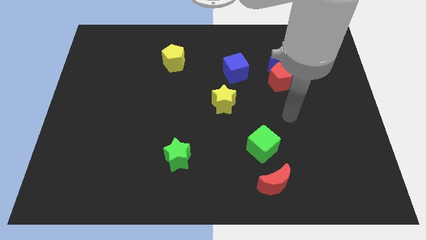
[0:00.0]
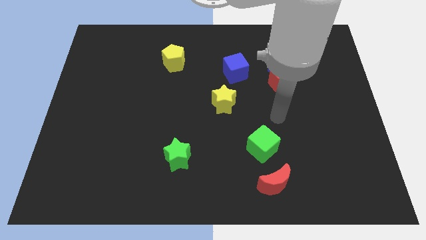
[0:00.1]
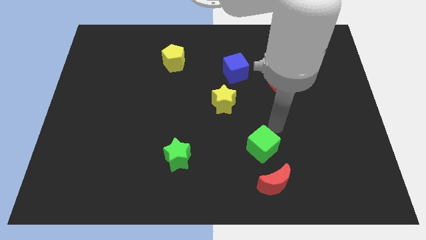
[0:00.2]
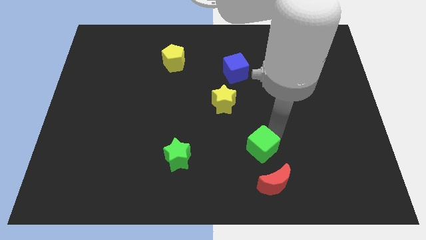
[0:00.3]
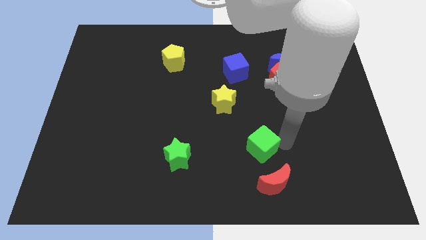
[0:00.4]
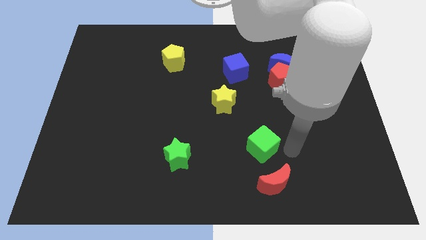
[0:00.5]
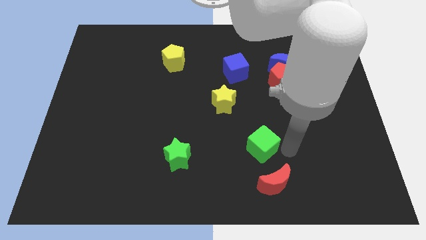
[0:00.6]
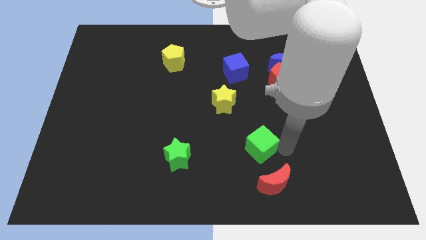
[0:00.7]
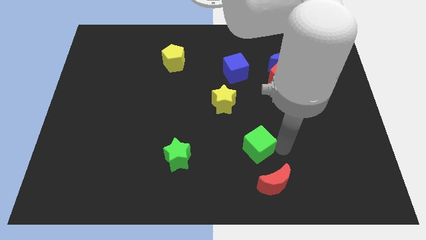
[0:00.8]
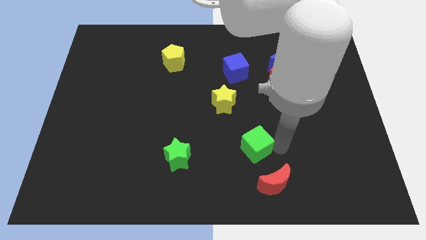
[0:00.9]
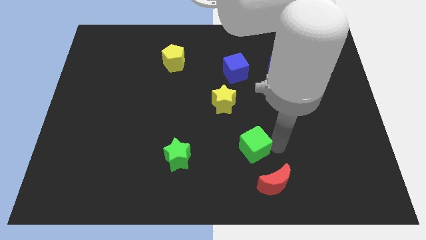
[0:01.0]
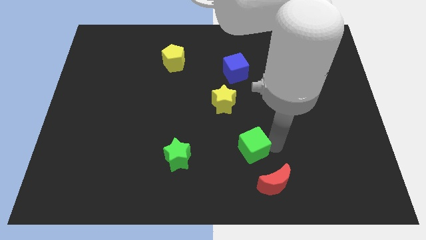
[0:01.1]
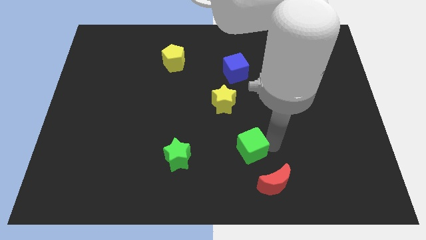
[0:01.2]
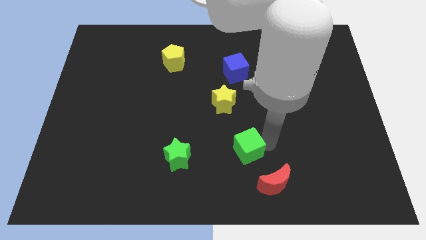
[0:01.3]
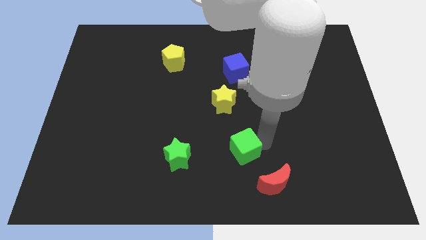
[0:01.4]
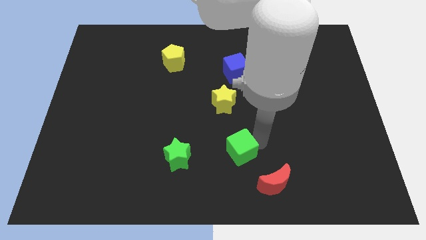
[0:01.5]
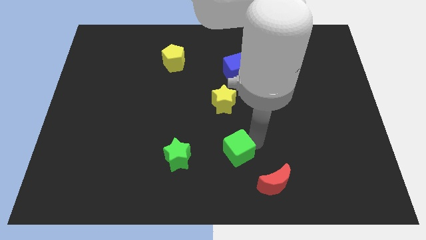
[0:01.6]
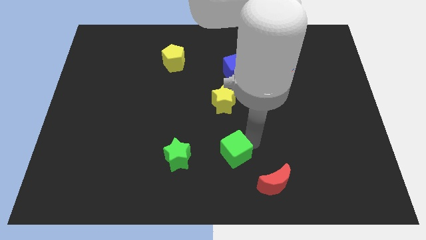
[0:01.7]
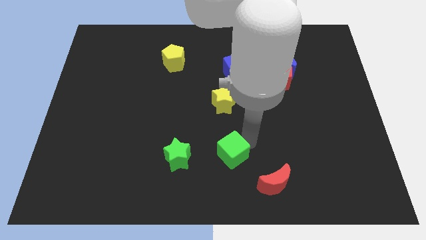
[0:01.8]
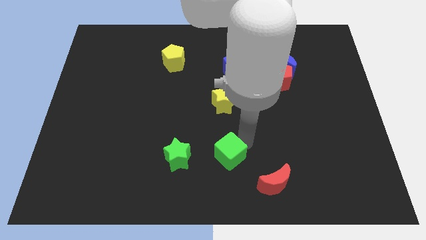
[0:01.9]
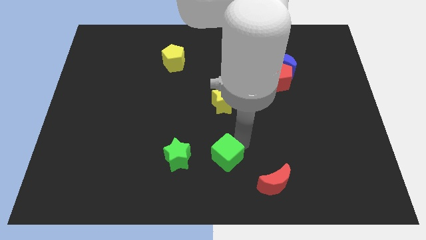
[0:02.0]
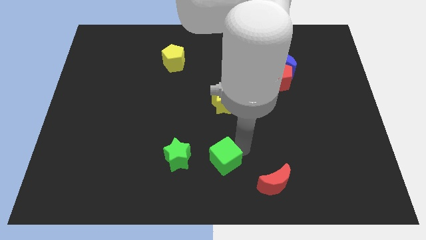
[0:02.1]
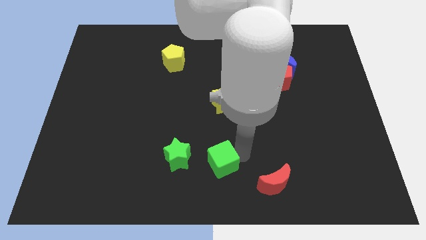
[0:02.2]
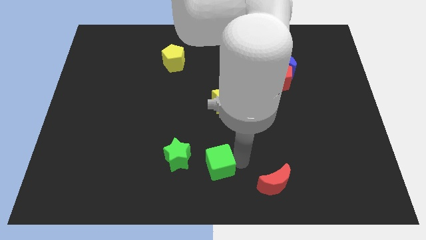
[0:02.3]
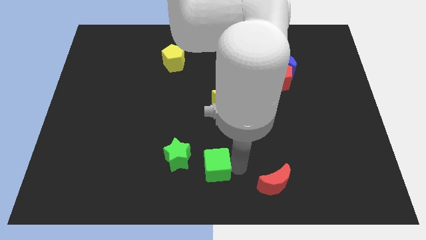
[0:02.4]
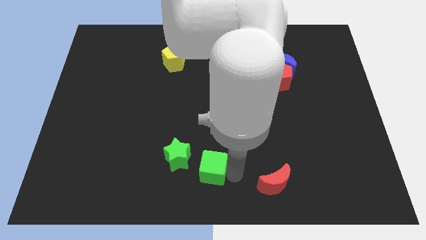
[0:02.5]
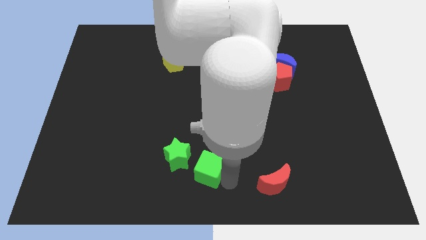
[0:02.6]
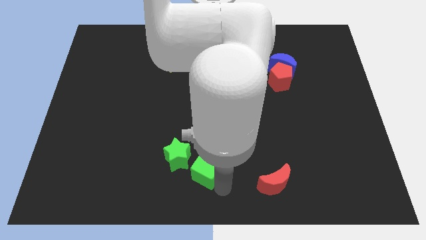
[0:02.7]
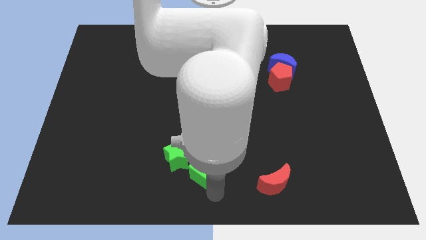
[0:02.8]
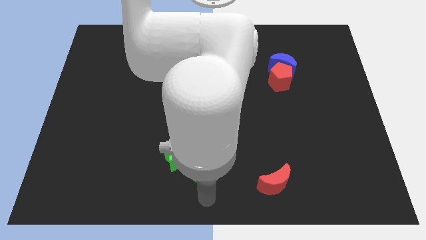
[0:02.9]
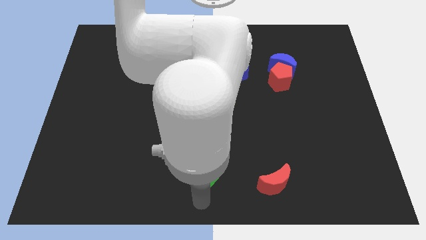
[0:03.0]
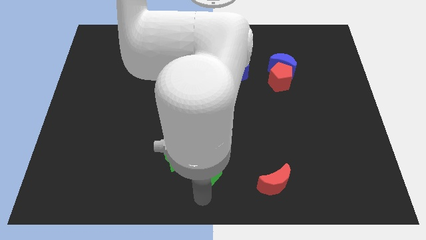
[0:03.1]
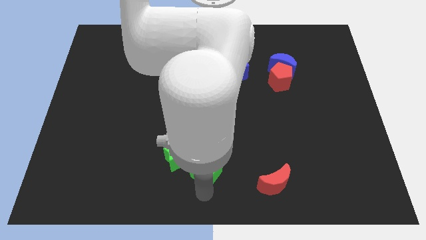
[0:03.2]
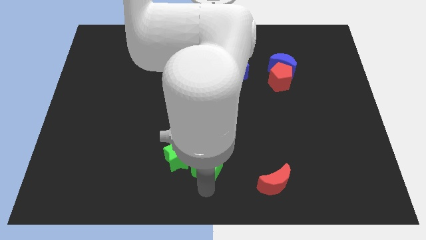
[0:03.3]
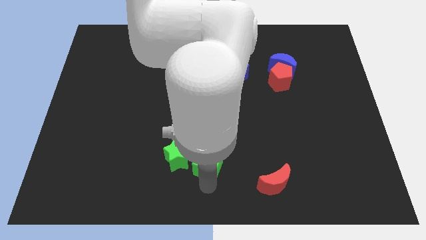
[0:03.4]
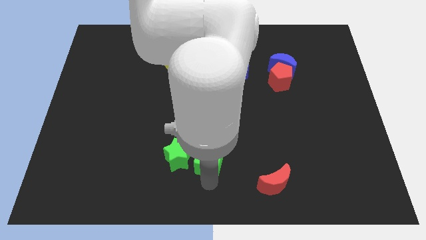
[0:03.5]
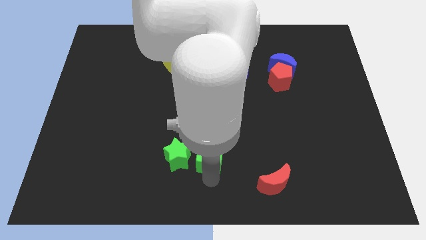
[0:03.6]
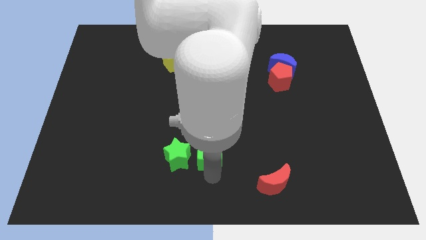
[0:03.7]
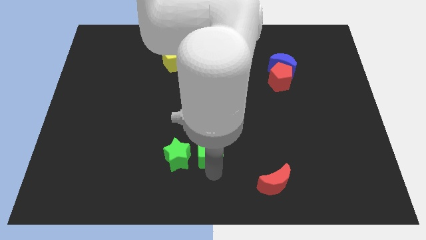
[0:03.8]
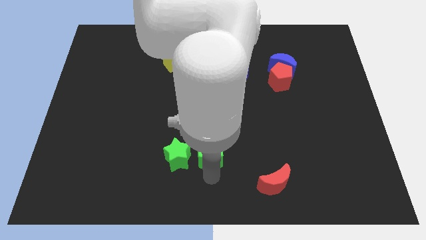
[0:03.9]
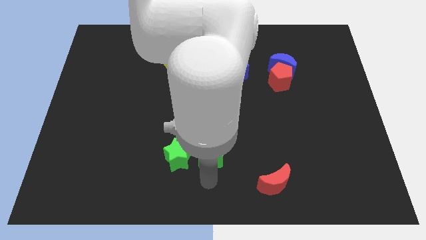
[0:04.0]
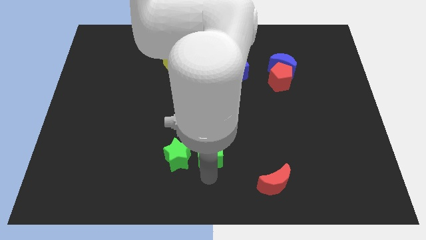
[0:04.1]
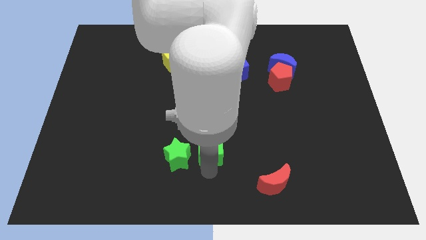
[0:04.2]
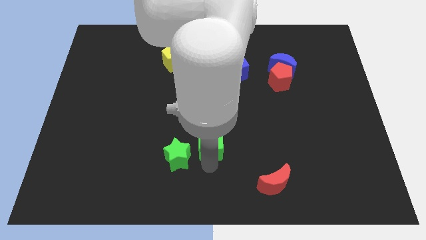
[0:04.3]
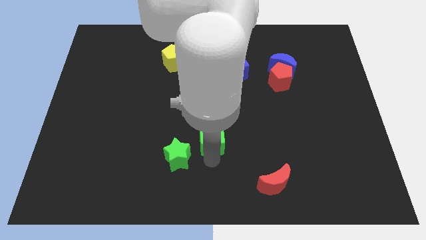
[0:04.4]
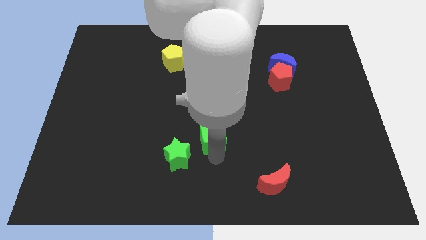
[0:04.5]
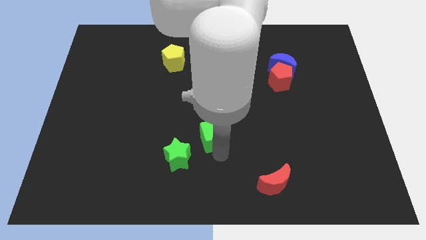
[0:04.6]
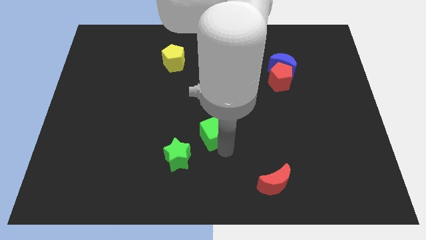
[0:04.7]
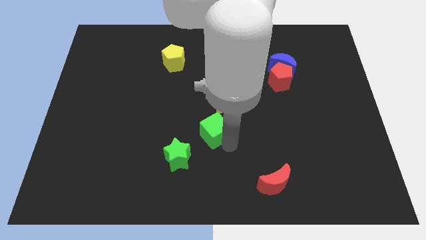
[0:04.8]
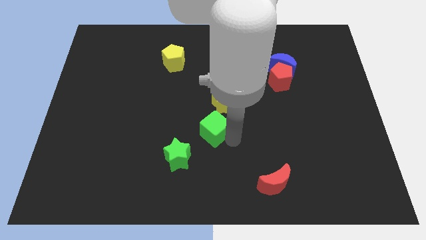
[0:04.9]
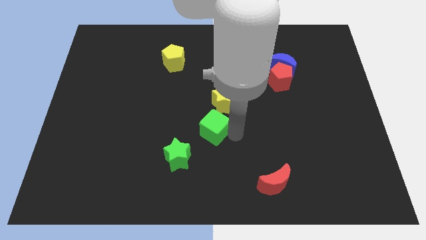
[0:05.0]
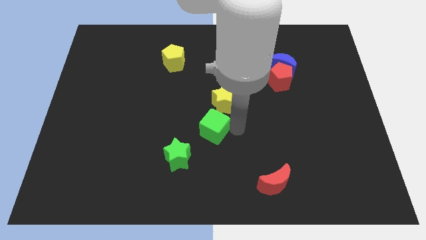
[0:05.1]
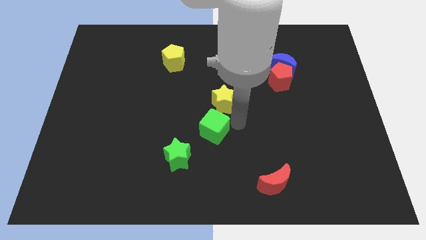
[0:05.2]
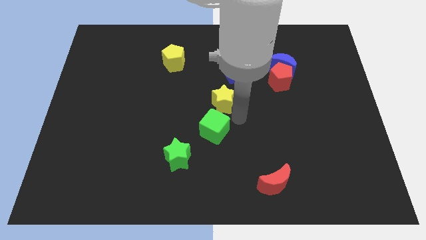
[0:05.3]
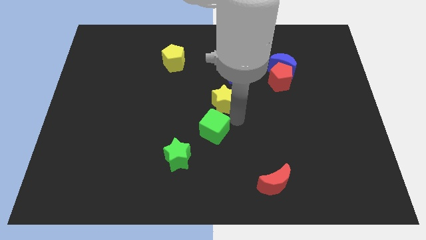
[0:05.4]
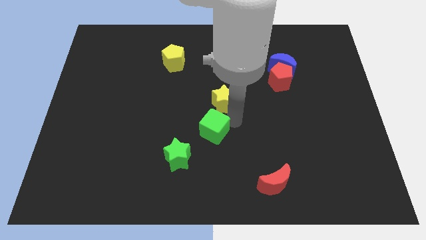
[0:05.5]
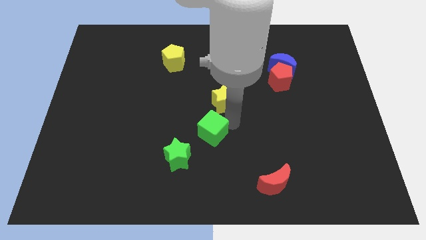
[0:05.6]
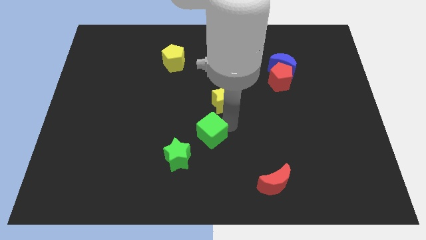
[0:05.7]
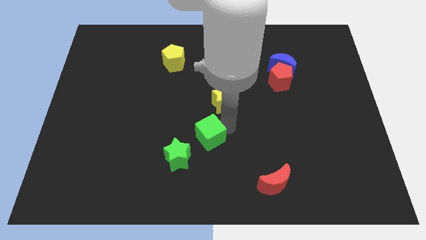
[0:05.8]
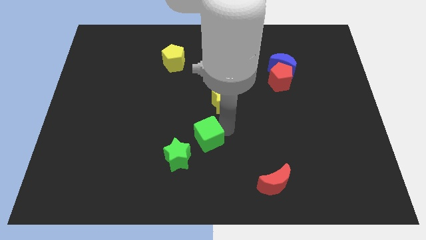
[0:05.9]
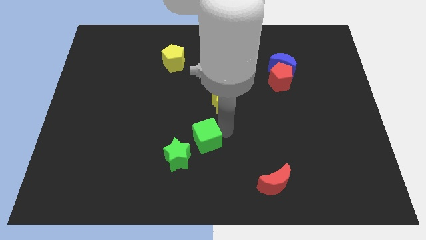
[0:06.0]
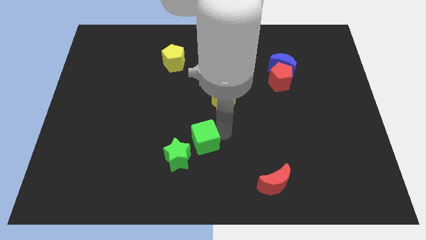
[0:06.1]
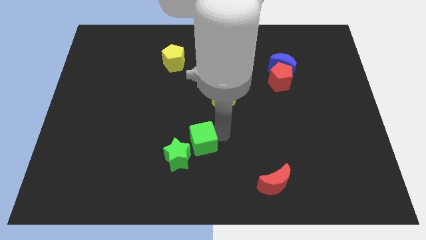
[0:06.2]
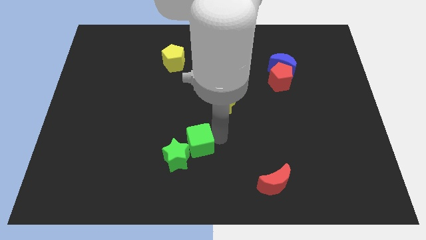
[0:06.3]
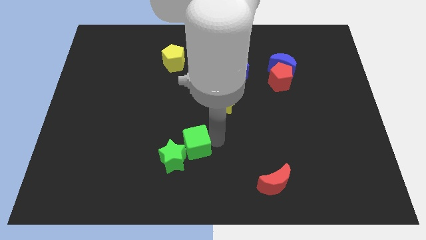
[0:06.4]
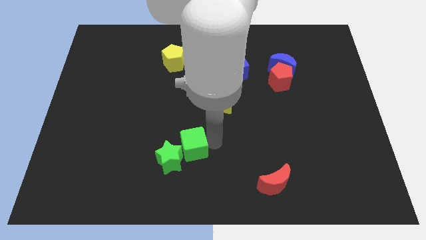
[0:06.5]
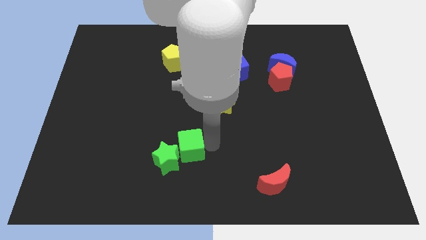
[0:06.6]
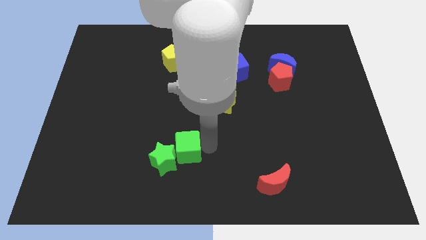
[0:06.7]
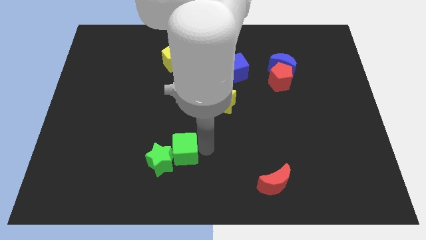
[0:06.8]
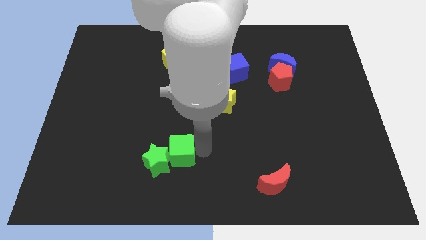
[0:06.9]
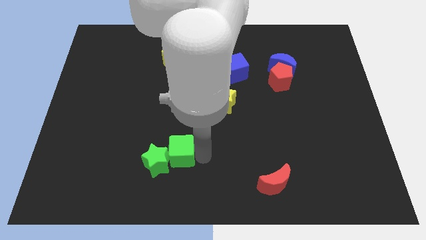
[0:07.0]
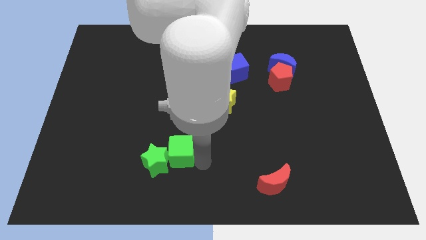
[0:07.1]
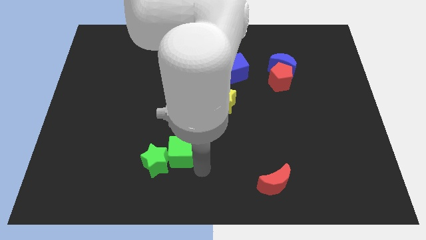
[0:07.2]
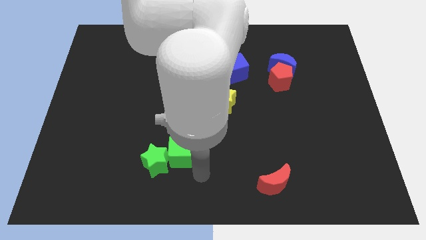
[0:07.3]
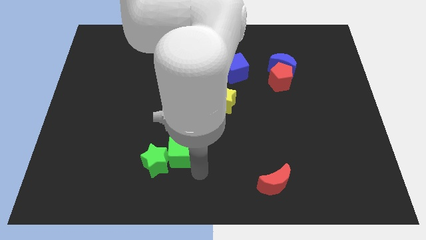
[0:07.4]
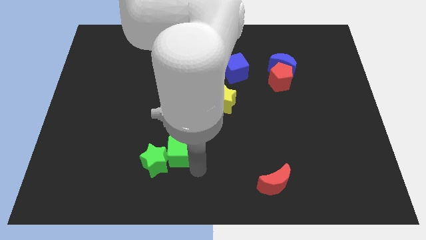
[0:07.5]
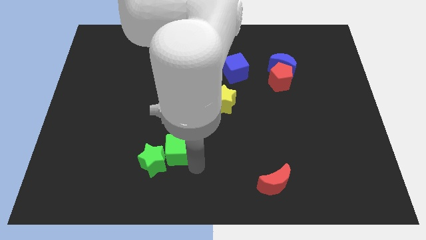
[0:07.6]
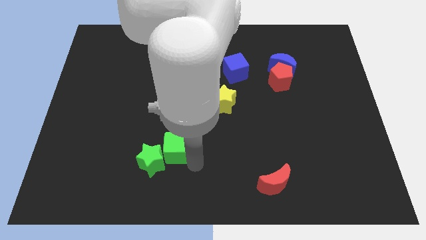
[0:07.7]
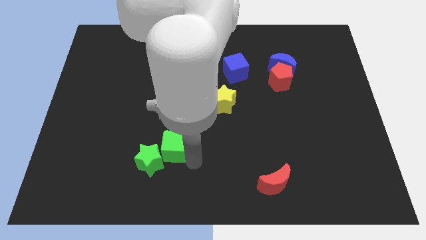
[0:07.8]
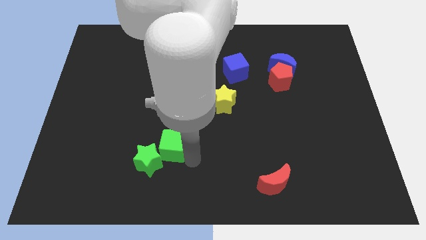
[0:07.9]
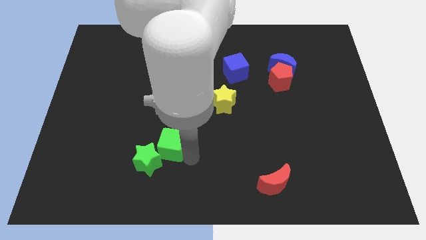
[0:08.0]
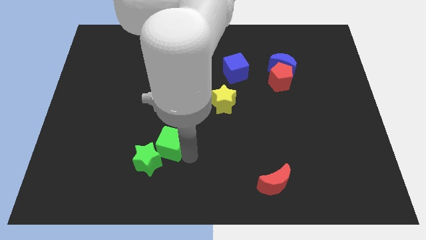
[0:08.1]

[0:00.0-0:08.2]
move the green cube to the left

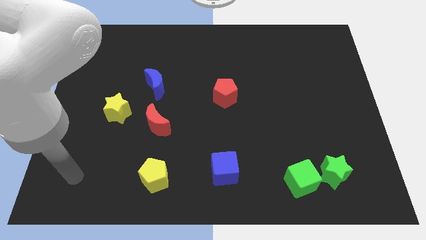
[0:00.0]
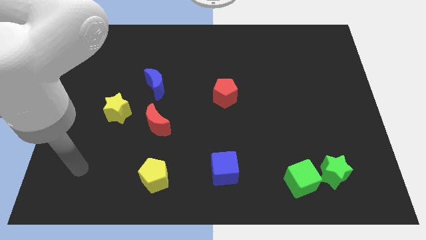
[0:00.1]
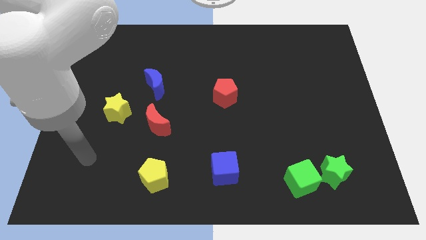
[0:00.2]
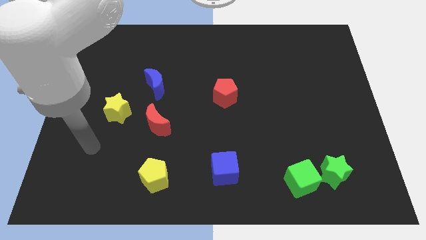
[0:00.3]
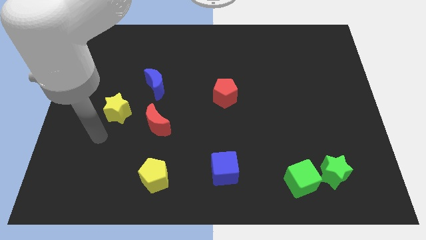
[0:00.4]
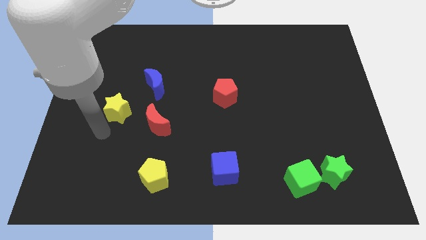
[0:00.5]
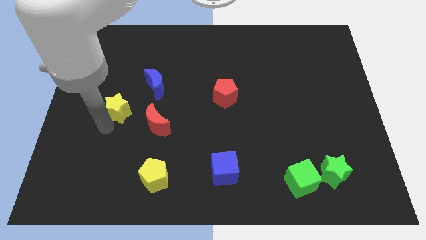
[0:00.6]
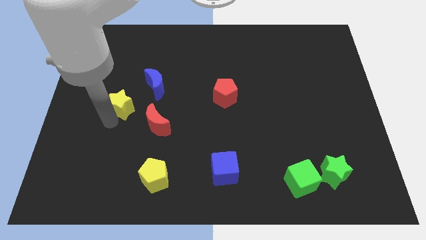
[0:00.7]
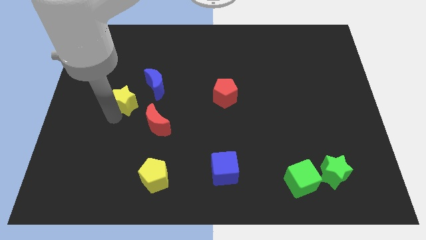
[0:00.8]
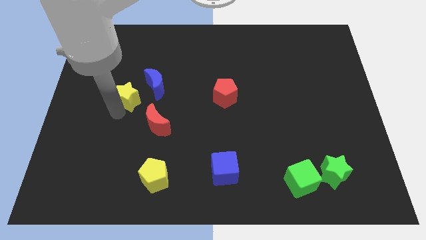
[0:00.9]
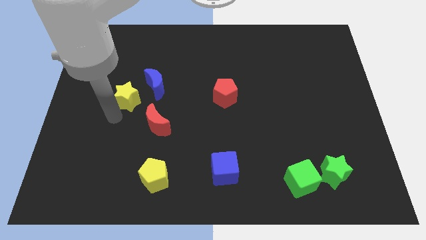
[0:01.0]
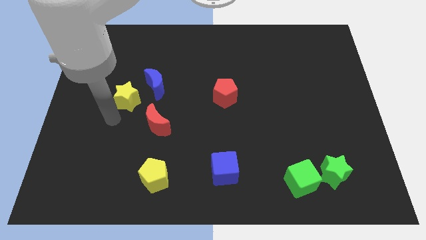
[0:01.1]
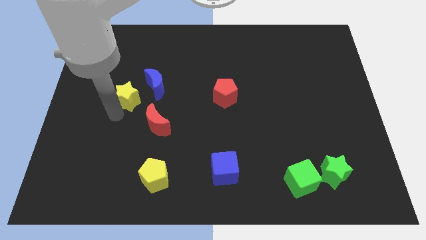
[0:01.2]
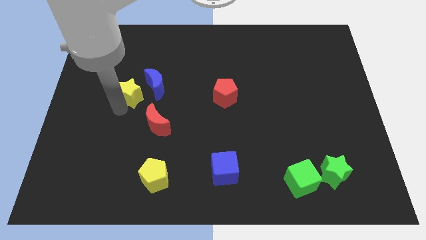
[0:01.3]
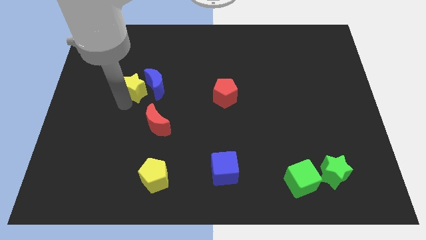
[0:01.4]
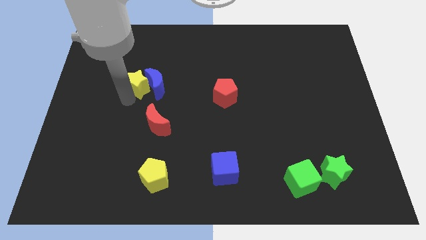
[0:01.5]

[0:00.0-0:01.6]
push the yellow star a little up and right diagonally
